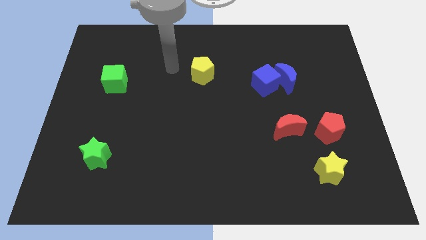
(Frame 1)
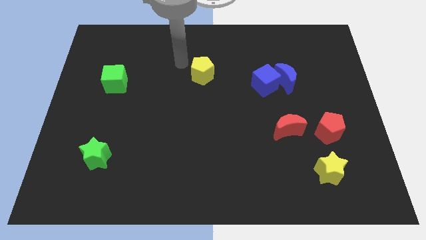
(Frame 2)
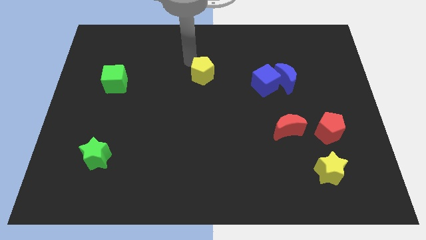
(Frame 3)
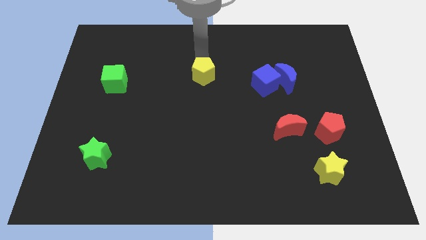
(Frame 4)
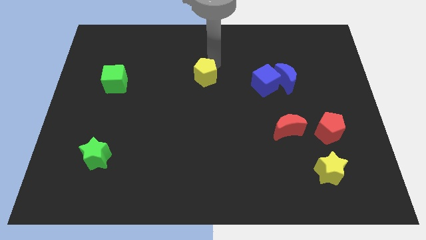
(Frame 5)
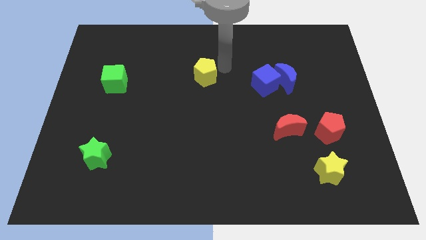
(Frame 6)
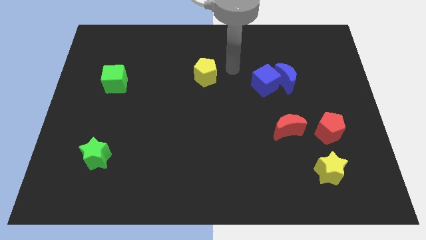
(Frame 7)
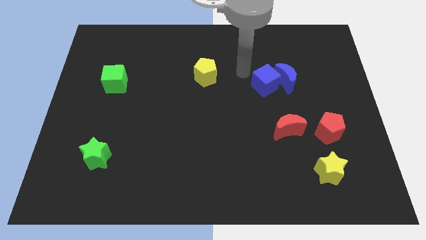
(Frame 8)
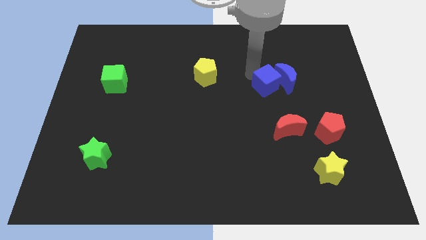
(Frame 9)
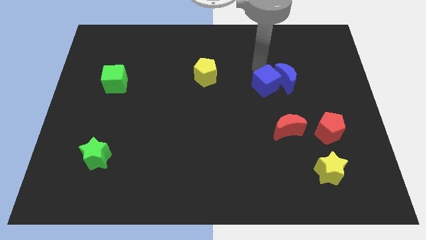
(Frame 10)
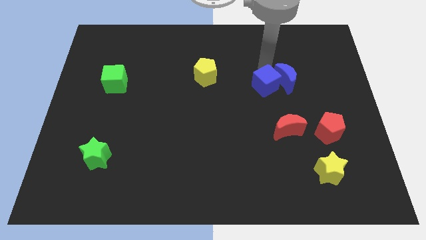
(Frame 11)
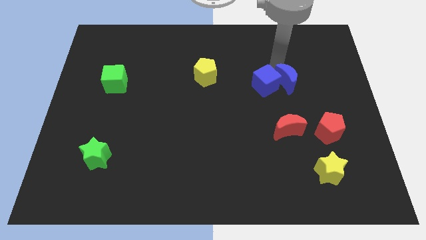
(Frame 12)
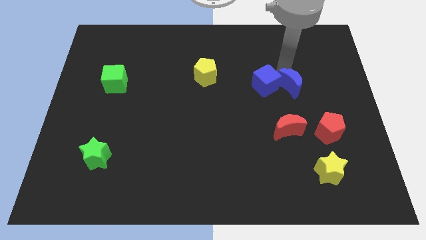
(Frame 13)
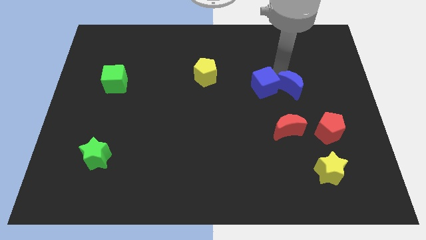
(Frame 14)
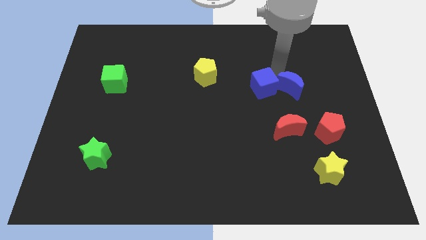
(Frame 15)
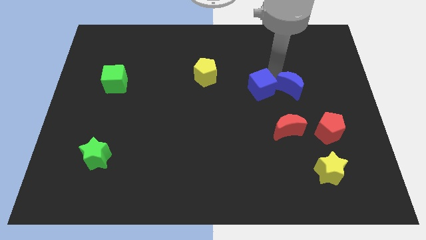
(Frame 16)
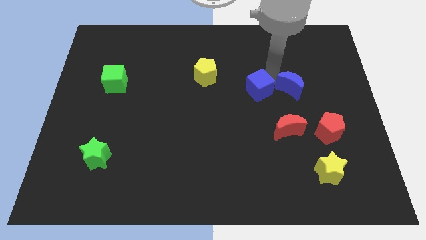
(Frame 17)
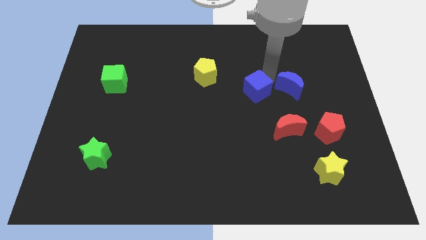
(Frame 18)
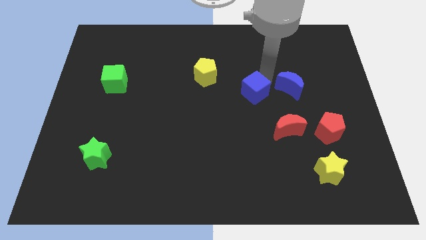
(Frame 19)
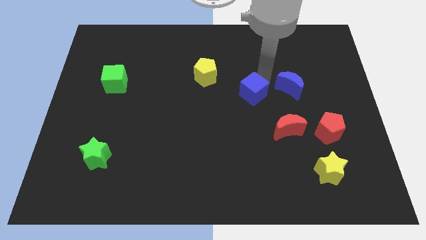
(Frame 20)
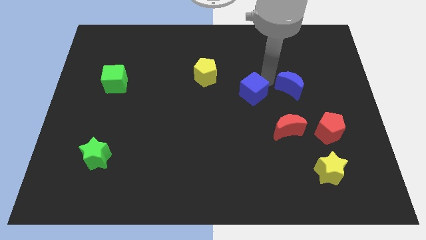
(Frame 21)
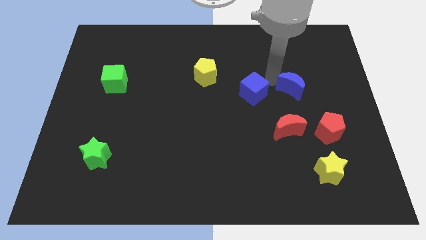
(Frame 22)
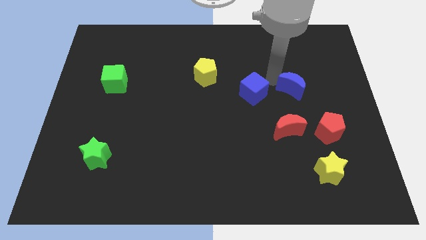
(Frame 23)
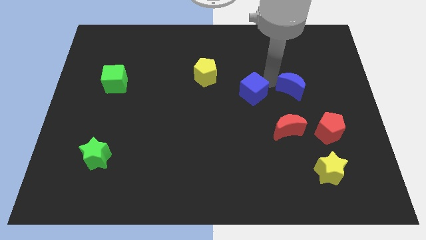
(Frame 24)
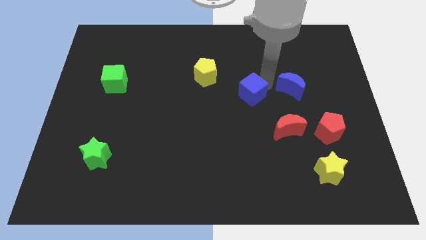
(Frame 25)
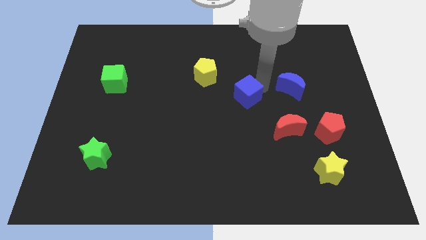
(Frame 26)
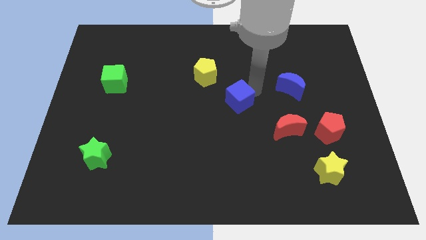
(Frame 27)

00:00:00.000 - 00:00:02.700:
move the blue cube somewhat downwards and left diagonally

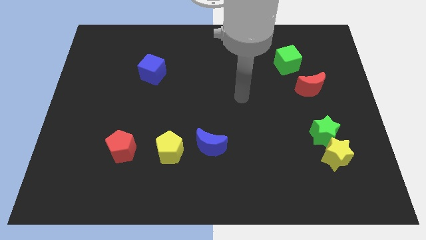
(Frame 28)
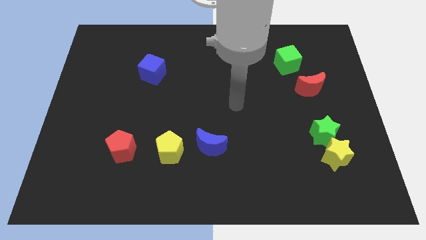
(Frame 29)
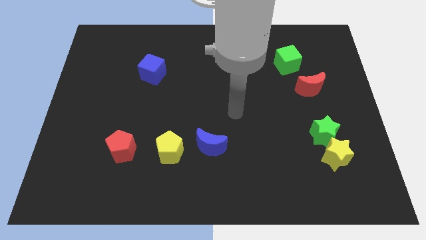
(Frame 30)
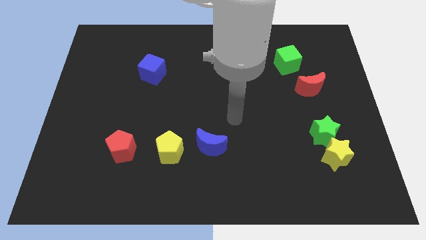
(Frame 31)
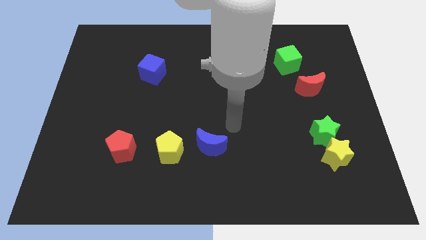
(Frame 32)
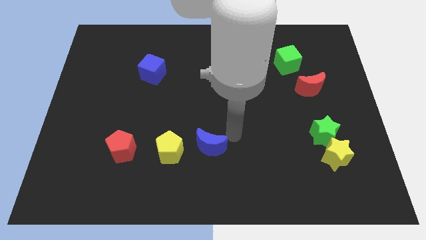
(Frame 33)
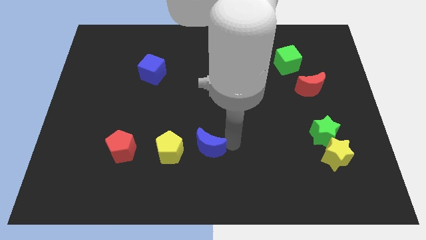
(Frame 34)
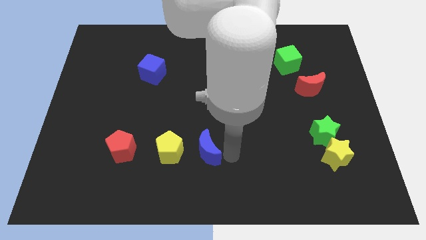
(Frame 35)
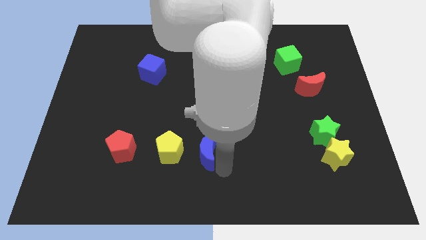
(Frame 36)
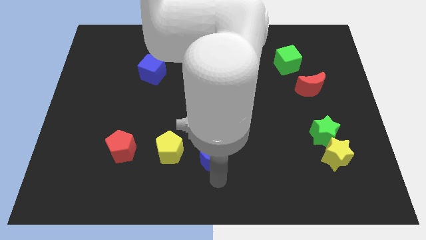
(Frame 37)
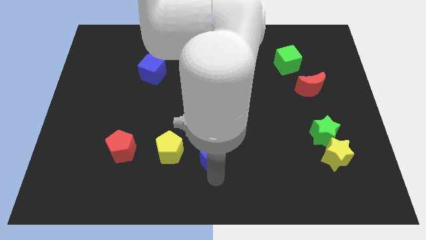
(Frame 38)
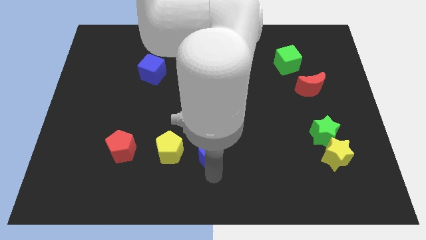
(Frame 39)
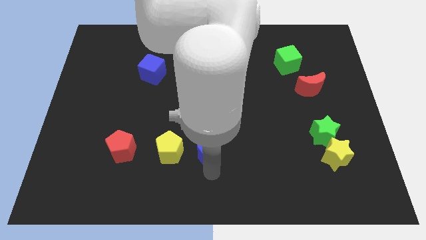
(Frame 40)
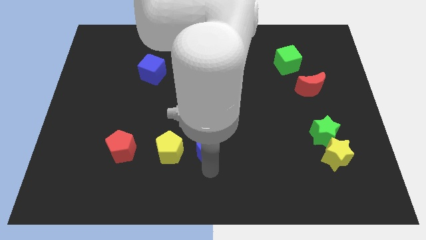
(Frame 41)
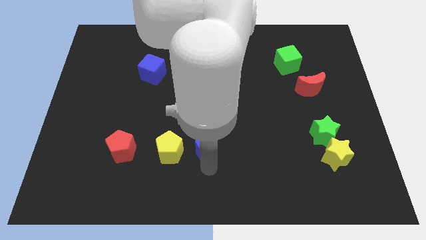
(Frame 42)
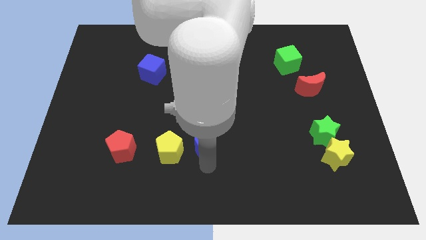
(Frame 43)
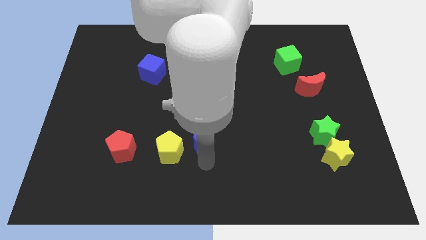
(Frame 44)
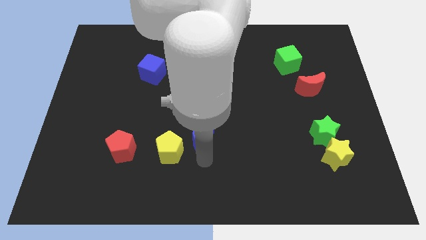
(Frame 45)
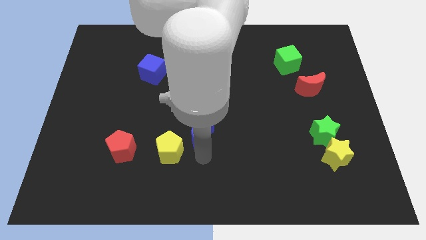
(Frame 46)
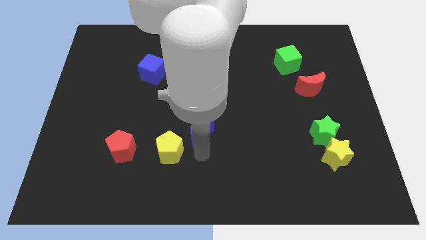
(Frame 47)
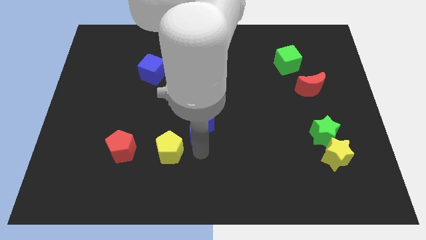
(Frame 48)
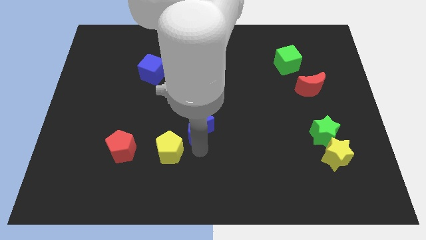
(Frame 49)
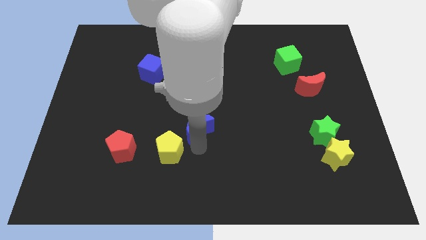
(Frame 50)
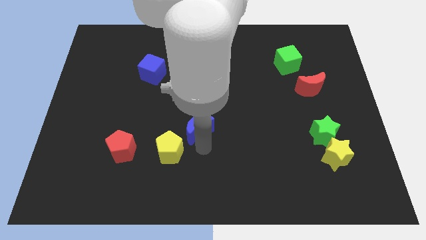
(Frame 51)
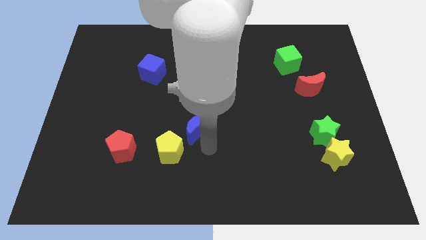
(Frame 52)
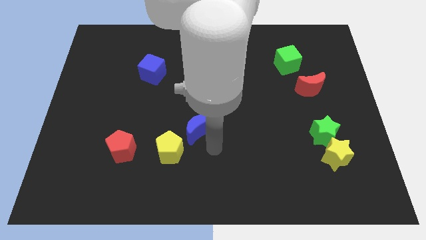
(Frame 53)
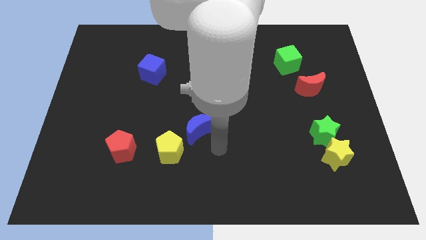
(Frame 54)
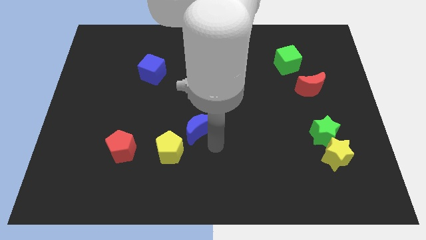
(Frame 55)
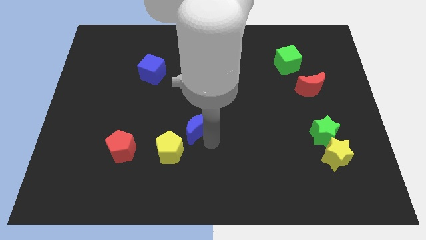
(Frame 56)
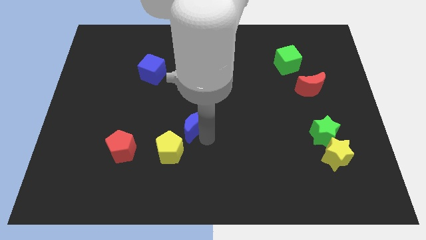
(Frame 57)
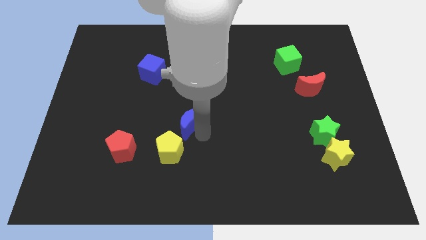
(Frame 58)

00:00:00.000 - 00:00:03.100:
slightly slide the blue moon upwards and then left

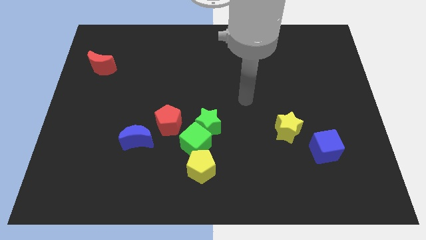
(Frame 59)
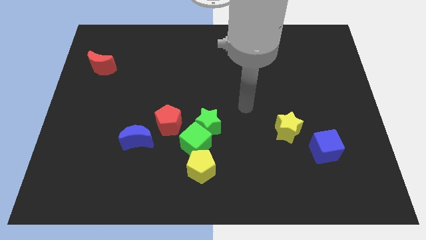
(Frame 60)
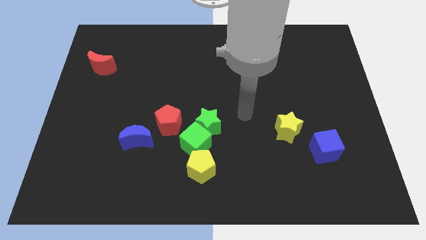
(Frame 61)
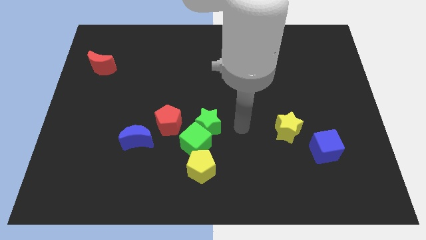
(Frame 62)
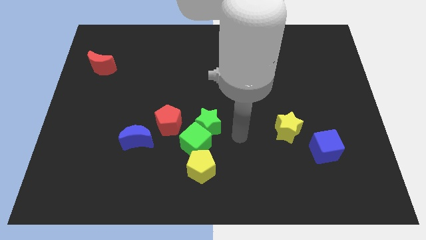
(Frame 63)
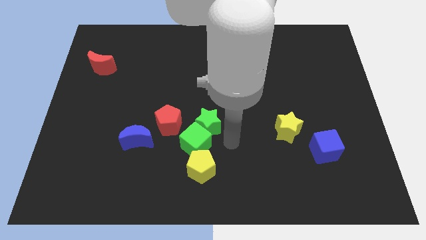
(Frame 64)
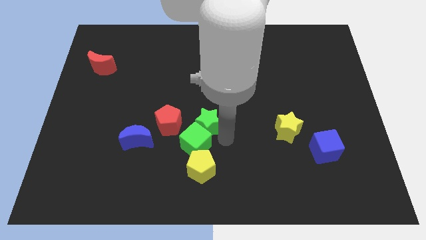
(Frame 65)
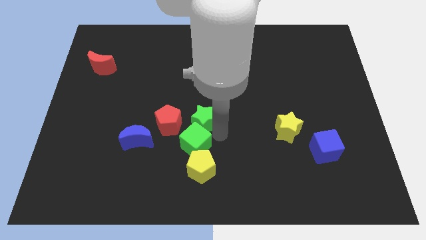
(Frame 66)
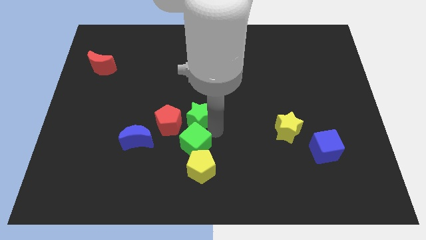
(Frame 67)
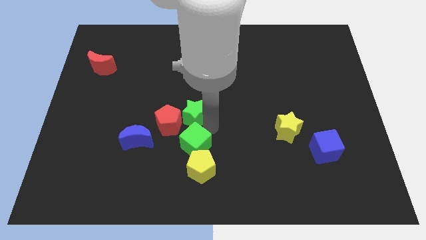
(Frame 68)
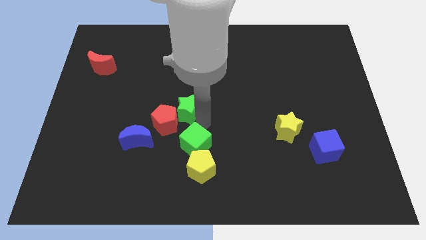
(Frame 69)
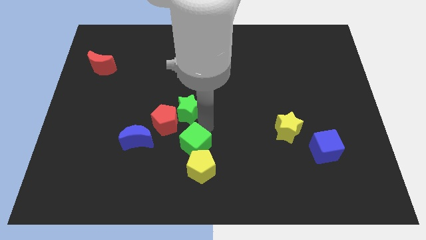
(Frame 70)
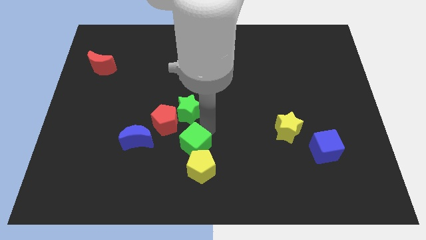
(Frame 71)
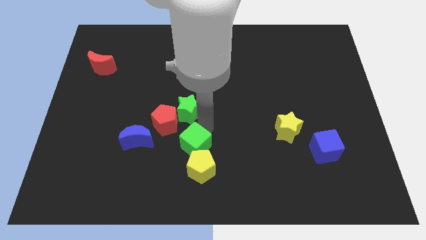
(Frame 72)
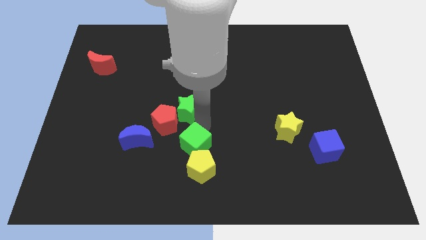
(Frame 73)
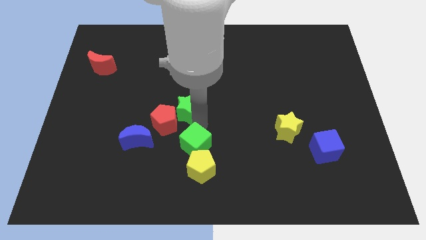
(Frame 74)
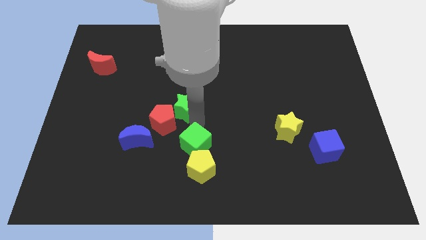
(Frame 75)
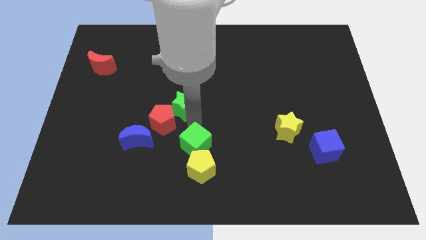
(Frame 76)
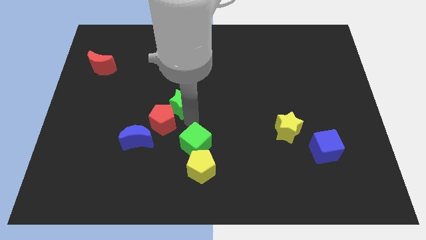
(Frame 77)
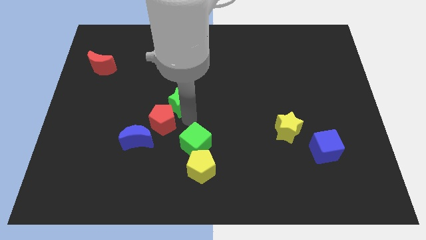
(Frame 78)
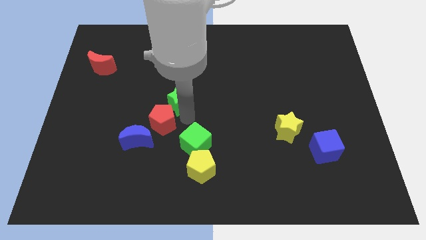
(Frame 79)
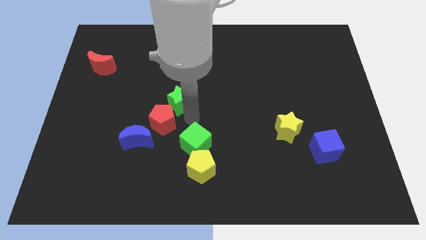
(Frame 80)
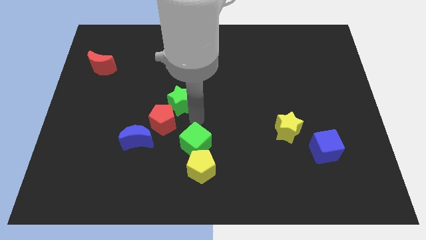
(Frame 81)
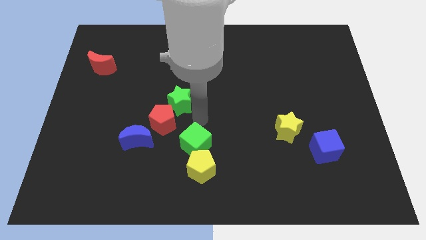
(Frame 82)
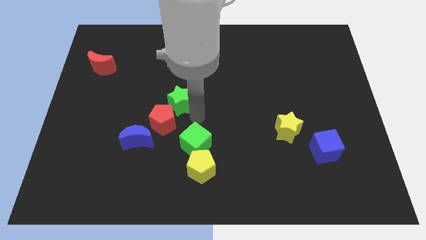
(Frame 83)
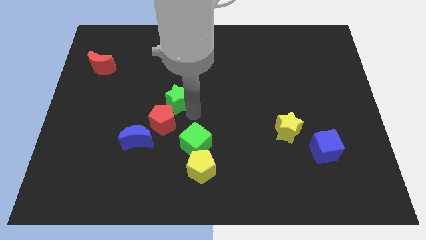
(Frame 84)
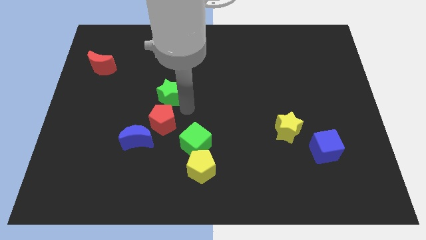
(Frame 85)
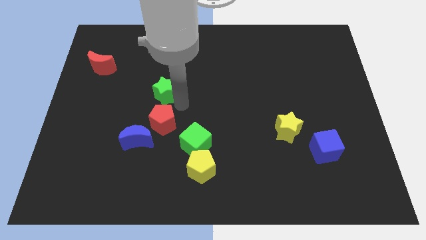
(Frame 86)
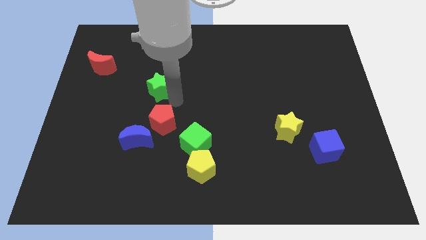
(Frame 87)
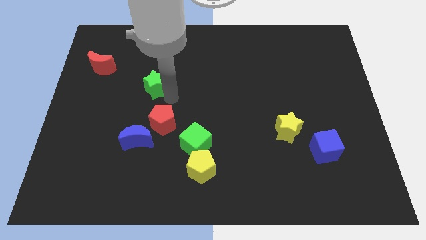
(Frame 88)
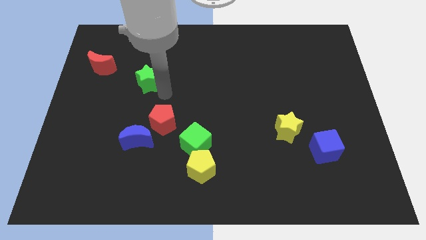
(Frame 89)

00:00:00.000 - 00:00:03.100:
push the green star up and to the left diagonally
